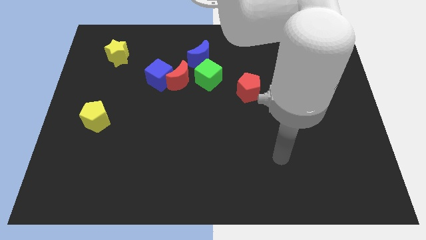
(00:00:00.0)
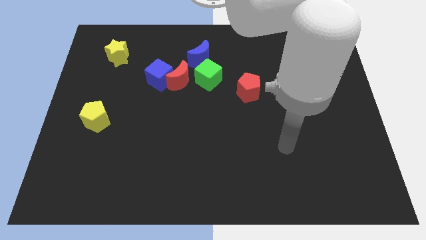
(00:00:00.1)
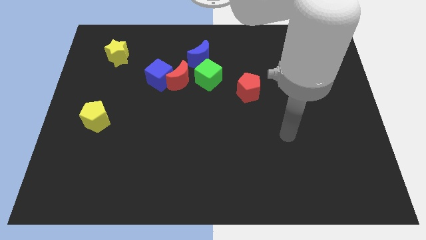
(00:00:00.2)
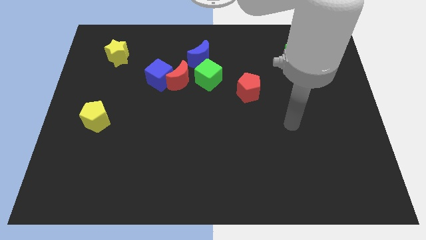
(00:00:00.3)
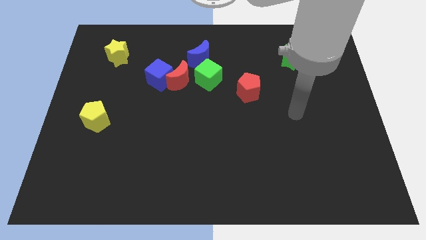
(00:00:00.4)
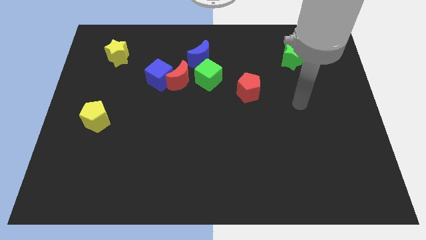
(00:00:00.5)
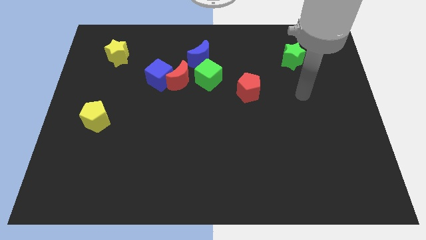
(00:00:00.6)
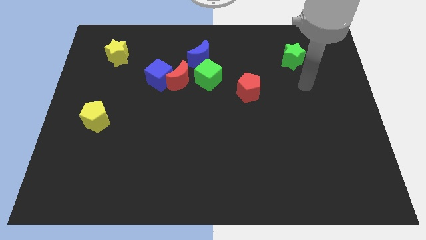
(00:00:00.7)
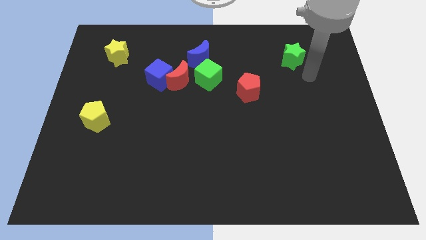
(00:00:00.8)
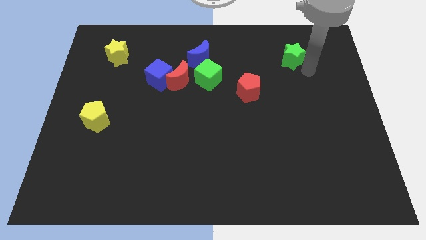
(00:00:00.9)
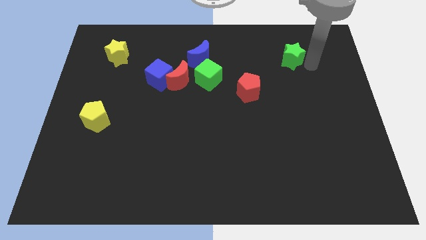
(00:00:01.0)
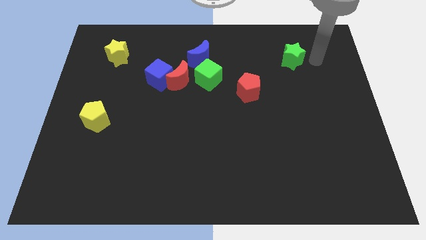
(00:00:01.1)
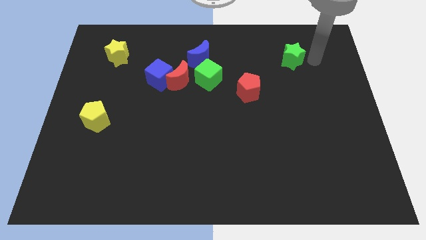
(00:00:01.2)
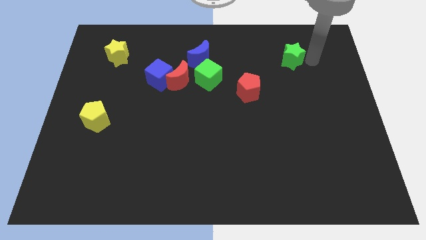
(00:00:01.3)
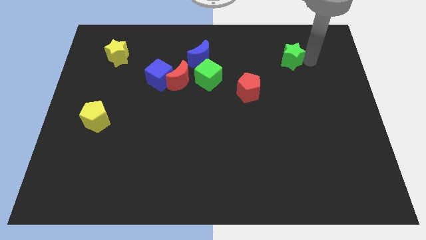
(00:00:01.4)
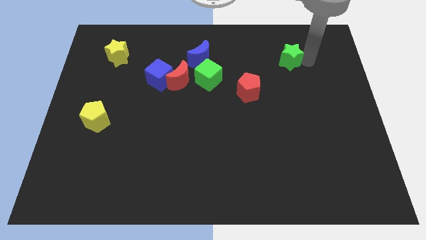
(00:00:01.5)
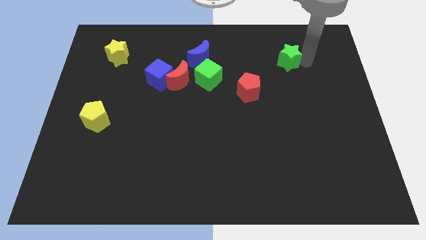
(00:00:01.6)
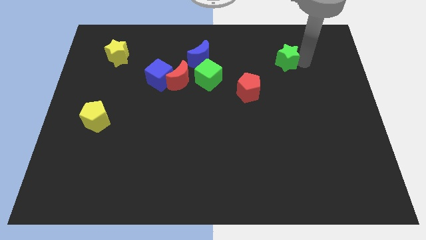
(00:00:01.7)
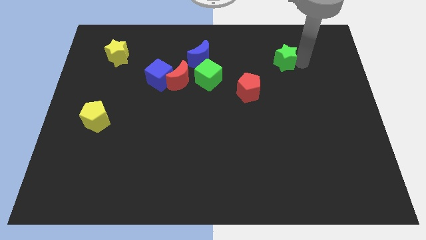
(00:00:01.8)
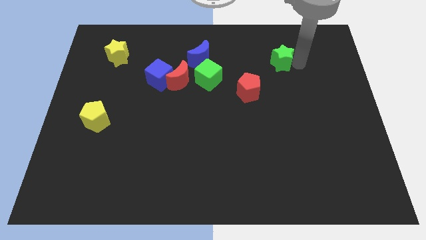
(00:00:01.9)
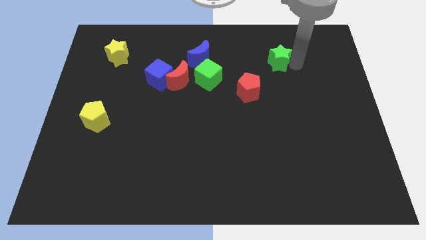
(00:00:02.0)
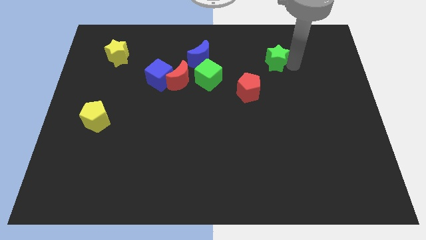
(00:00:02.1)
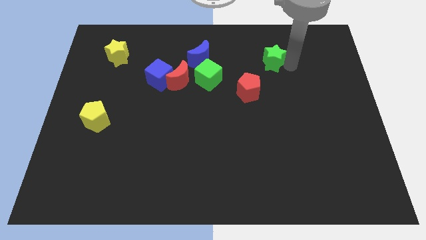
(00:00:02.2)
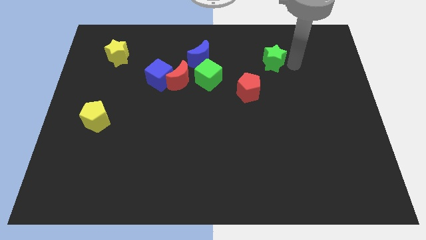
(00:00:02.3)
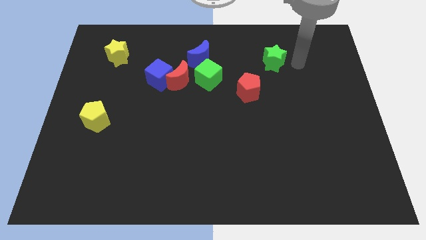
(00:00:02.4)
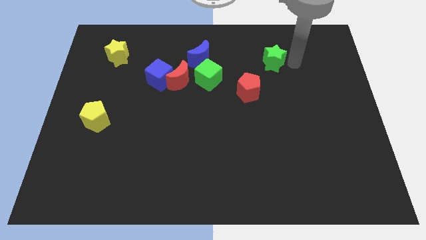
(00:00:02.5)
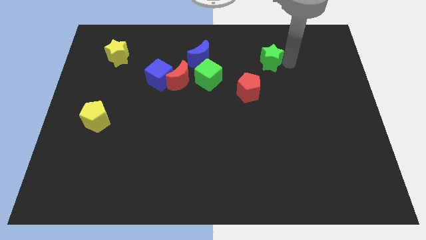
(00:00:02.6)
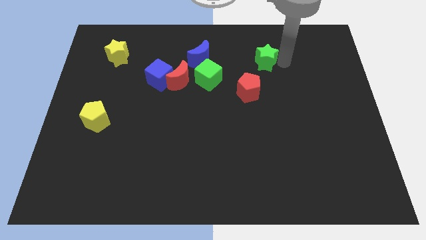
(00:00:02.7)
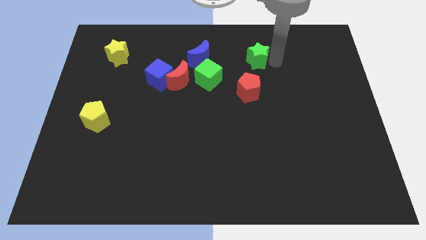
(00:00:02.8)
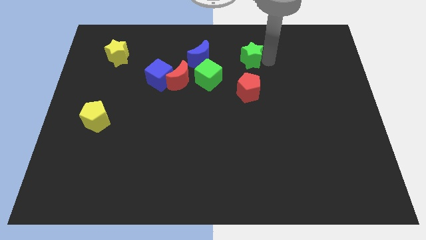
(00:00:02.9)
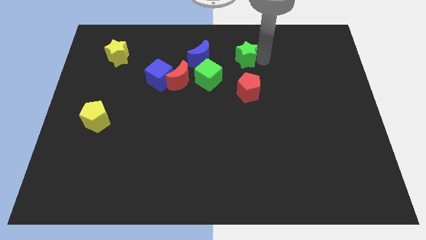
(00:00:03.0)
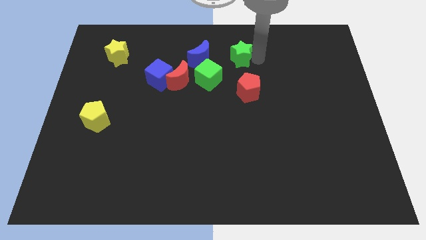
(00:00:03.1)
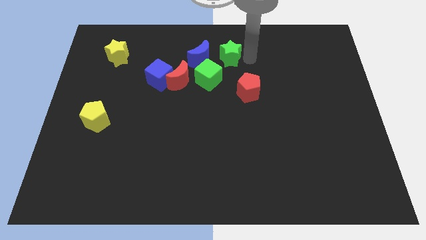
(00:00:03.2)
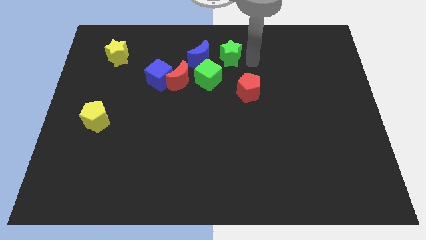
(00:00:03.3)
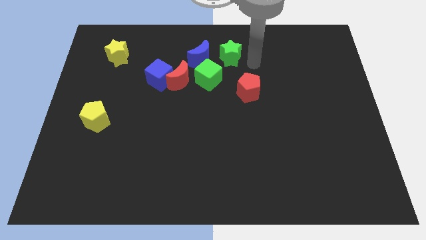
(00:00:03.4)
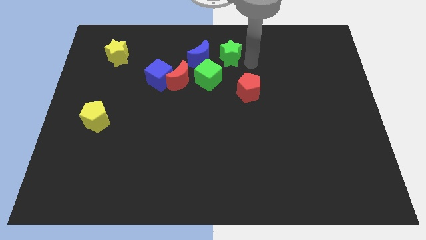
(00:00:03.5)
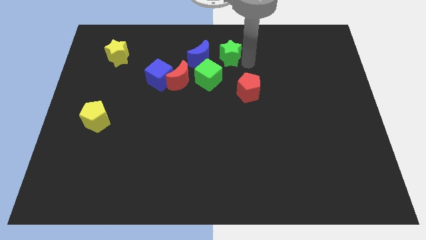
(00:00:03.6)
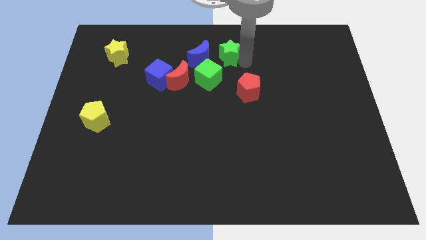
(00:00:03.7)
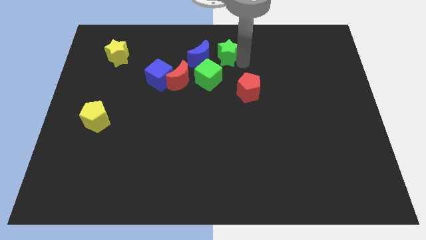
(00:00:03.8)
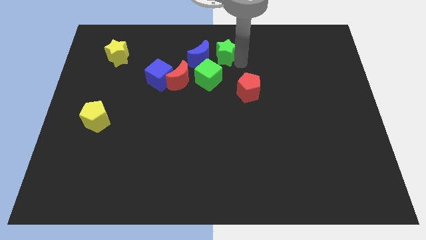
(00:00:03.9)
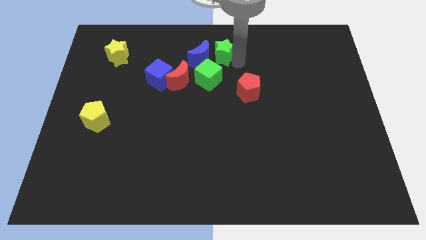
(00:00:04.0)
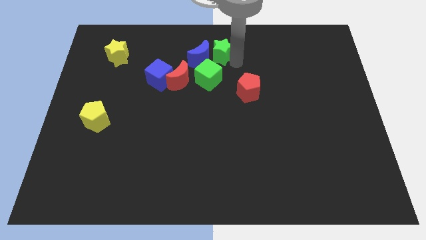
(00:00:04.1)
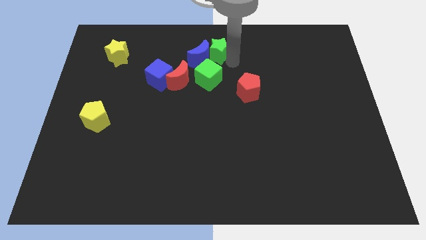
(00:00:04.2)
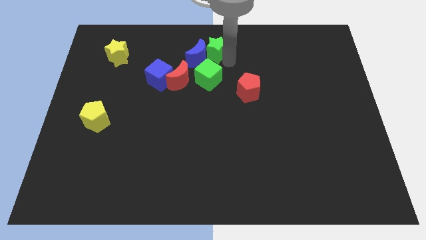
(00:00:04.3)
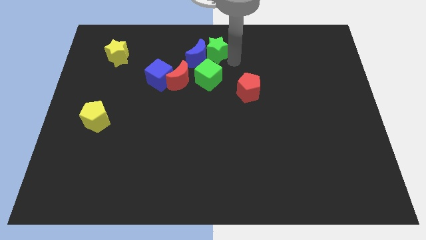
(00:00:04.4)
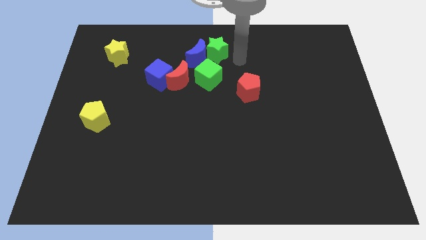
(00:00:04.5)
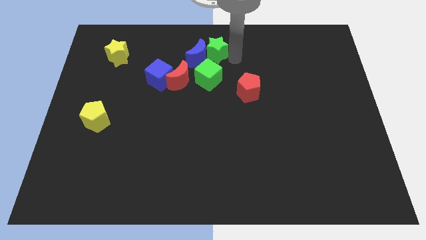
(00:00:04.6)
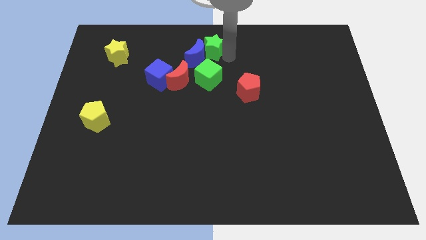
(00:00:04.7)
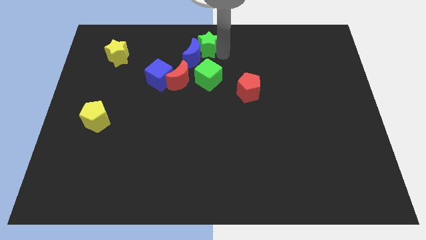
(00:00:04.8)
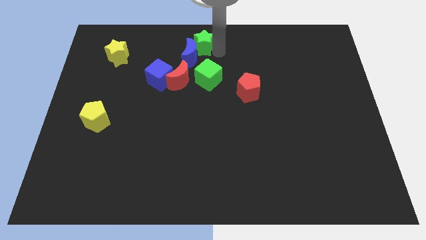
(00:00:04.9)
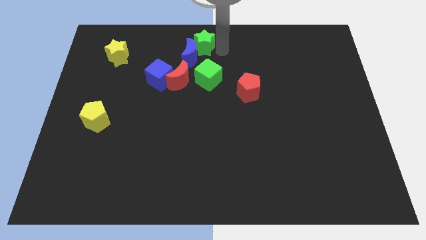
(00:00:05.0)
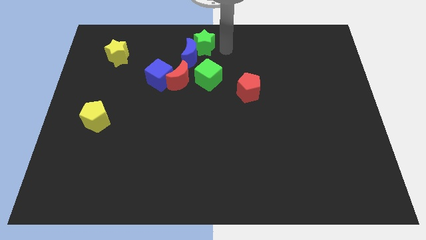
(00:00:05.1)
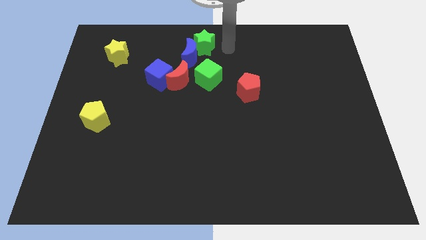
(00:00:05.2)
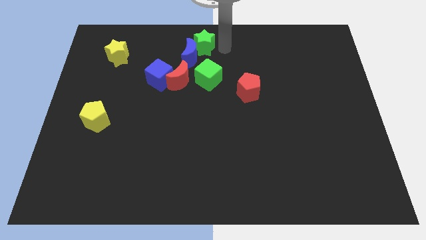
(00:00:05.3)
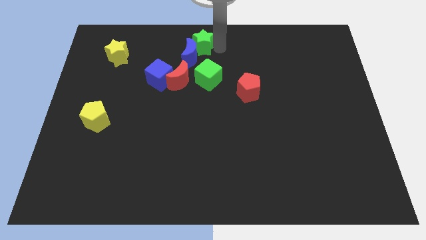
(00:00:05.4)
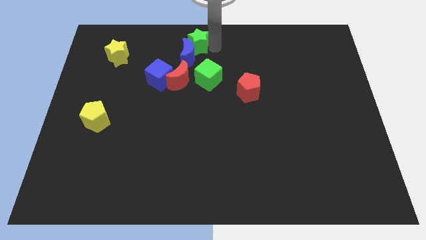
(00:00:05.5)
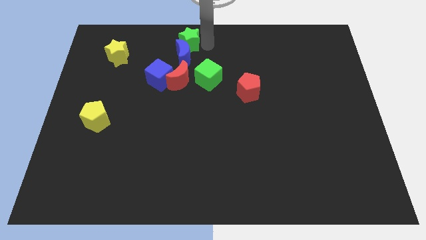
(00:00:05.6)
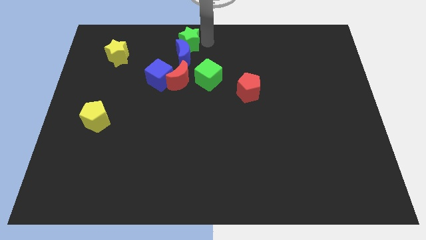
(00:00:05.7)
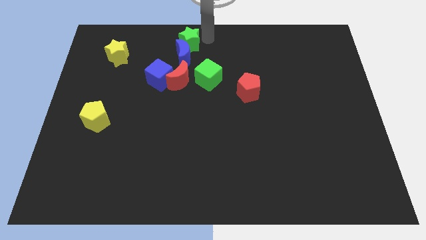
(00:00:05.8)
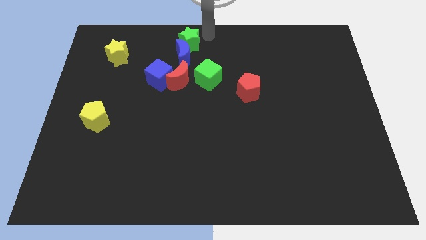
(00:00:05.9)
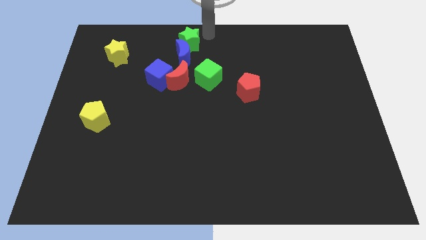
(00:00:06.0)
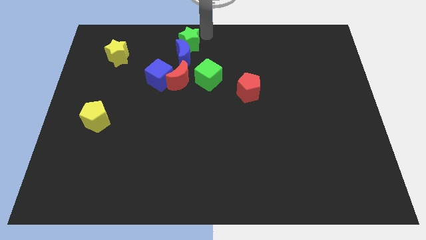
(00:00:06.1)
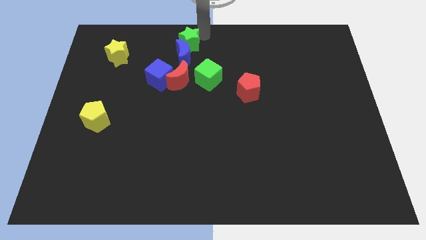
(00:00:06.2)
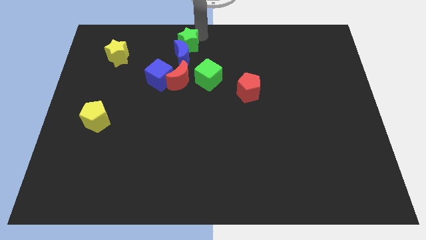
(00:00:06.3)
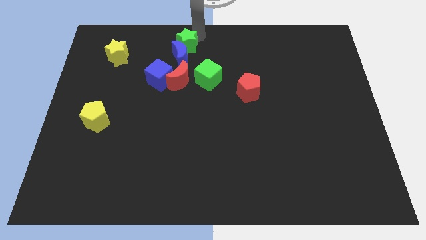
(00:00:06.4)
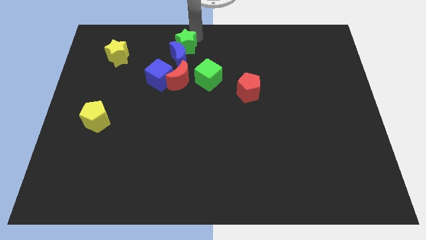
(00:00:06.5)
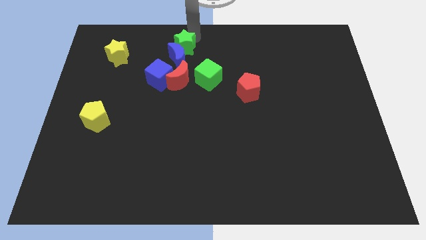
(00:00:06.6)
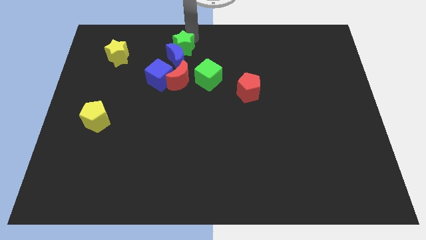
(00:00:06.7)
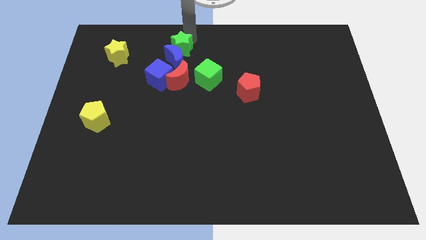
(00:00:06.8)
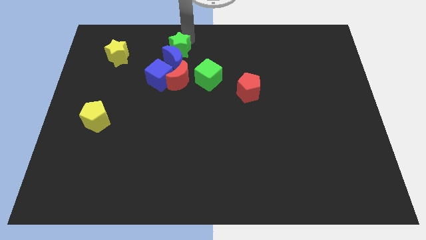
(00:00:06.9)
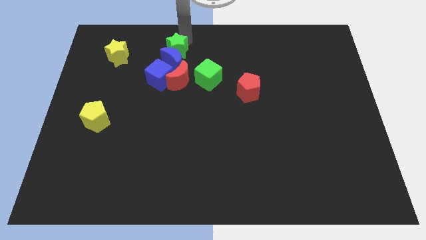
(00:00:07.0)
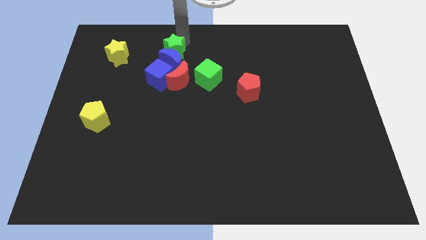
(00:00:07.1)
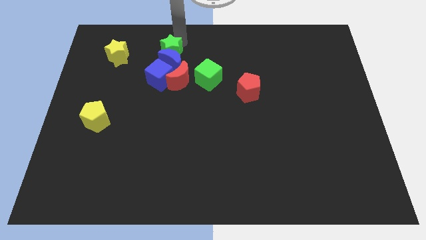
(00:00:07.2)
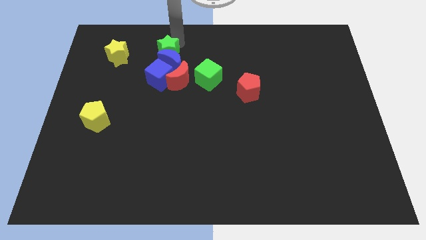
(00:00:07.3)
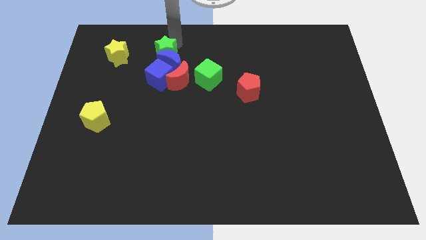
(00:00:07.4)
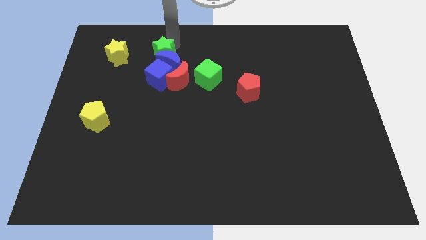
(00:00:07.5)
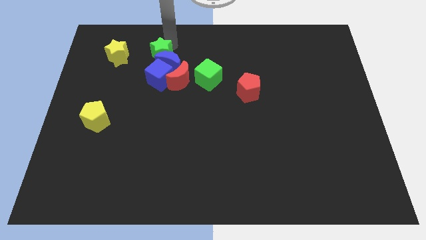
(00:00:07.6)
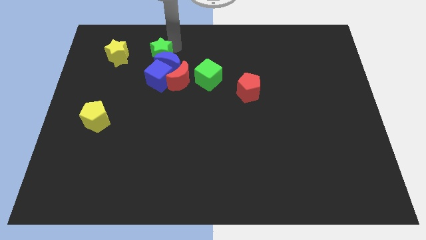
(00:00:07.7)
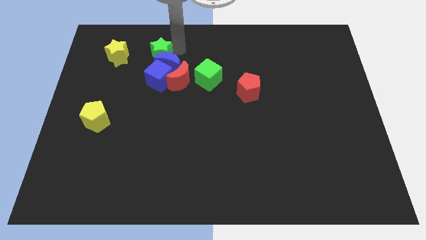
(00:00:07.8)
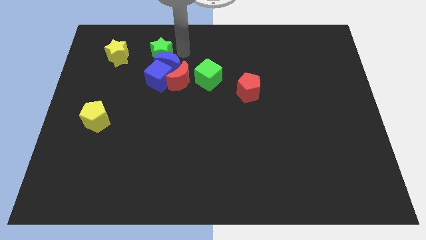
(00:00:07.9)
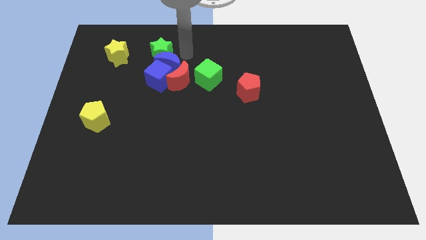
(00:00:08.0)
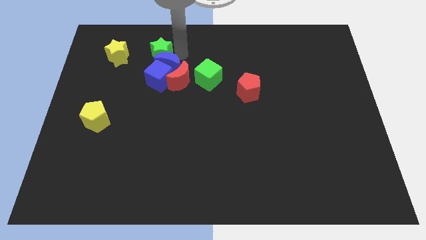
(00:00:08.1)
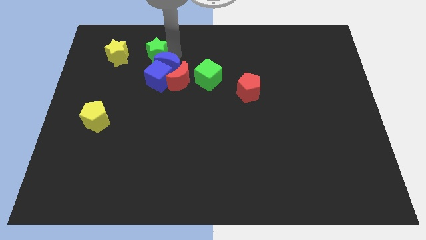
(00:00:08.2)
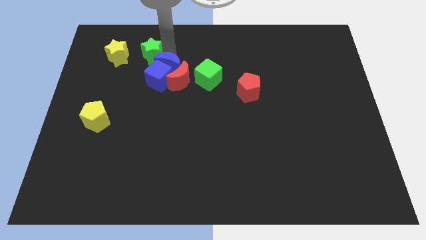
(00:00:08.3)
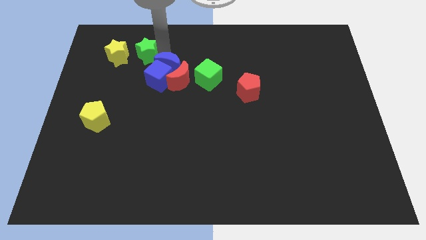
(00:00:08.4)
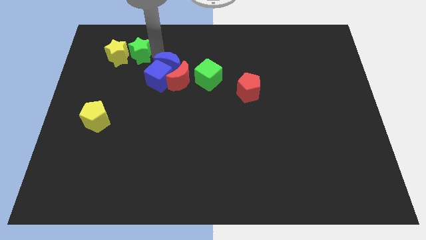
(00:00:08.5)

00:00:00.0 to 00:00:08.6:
slide the green star next to the yellow star
